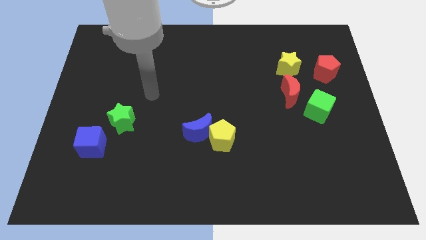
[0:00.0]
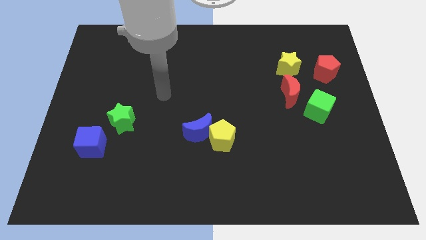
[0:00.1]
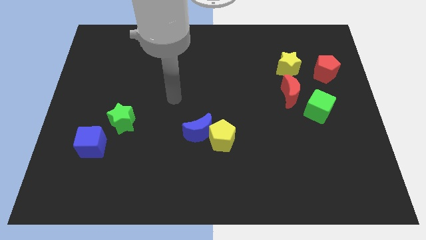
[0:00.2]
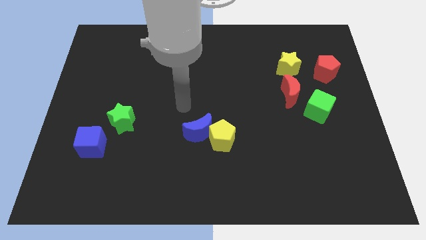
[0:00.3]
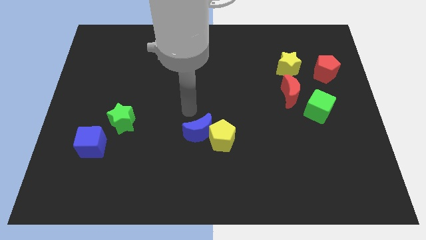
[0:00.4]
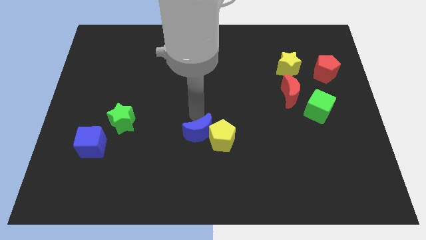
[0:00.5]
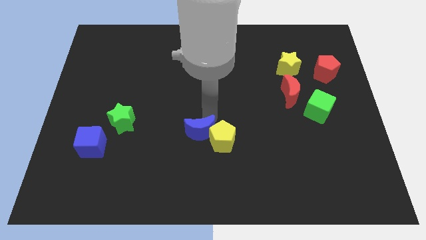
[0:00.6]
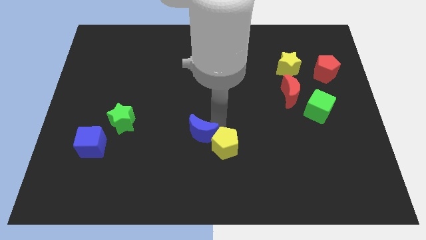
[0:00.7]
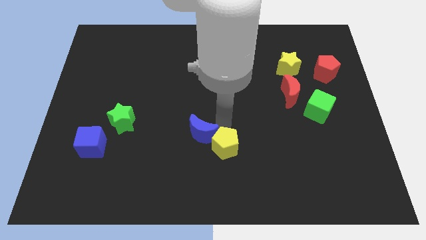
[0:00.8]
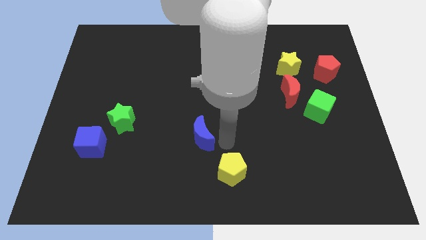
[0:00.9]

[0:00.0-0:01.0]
move the blue moon away from the yellow pentagon

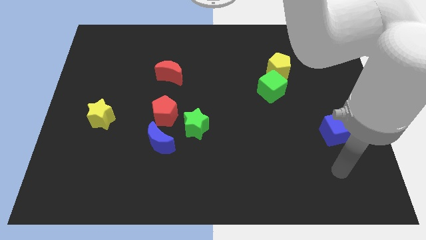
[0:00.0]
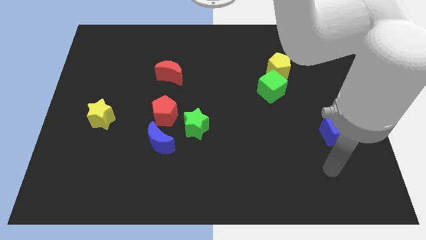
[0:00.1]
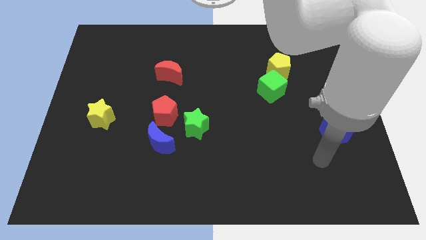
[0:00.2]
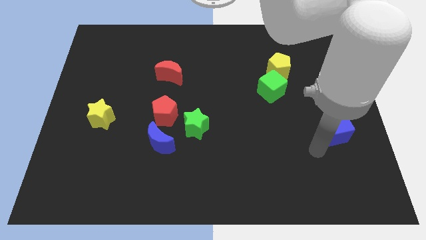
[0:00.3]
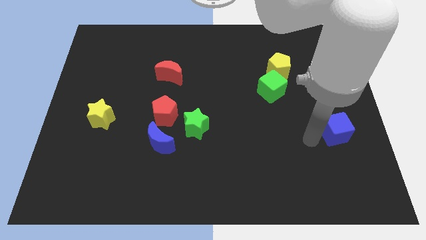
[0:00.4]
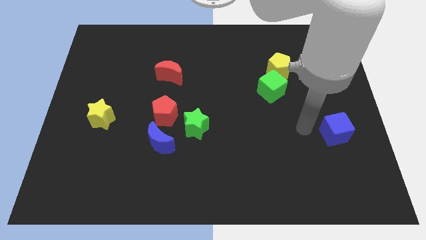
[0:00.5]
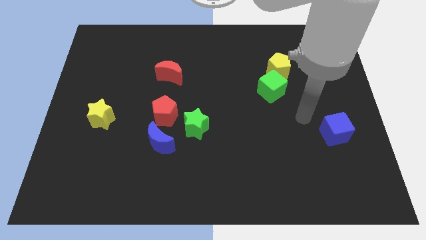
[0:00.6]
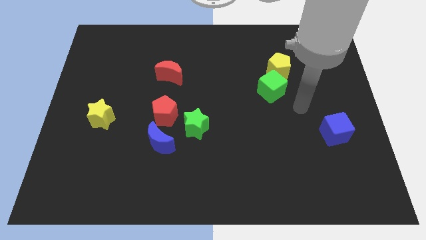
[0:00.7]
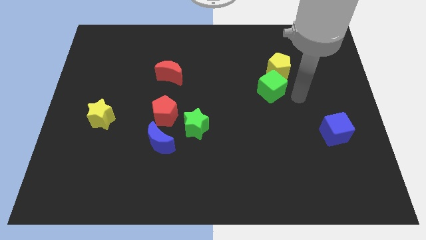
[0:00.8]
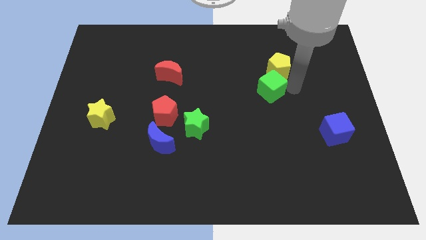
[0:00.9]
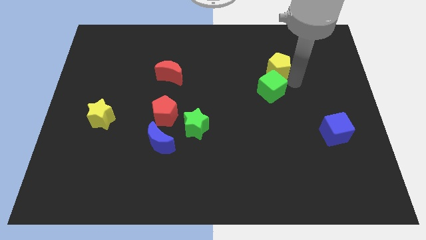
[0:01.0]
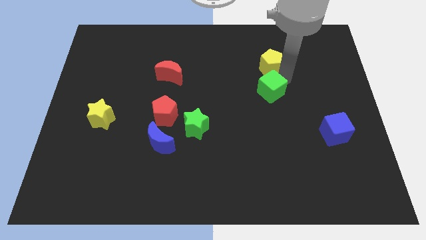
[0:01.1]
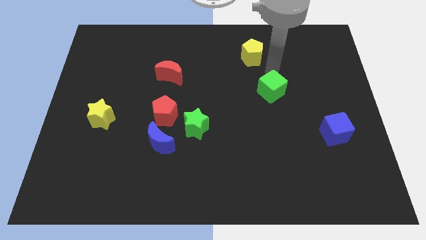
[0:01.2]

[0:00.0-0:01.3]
move the green cube away from the yellow pentagon

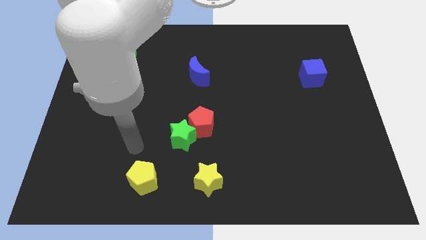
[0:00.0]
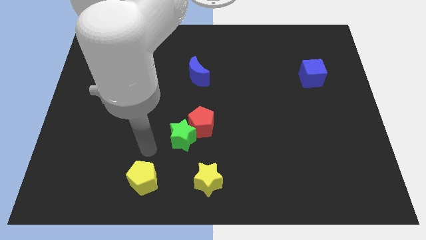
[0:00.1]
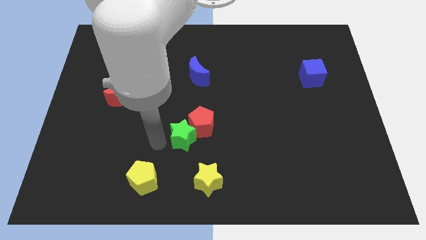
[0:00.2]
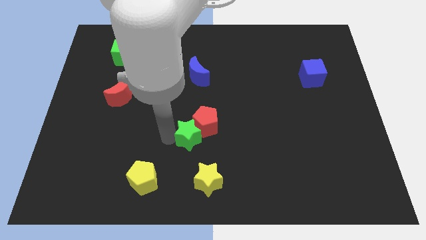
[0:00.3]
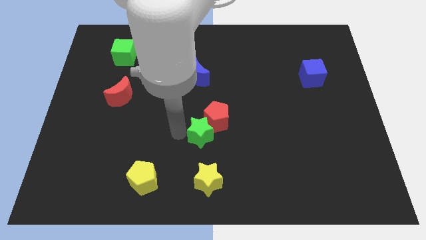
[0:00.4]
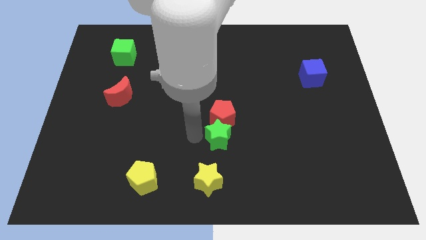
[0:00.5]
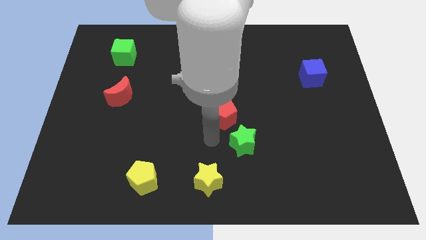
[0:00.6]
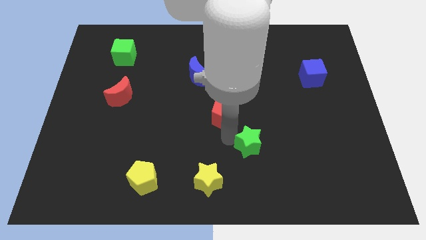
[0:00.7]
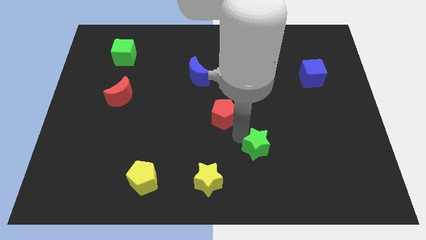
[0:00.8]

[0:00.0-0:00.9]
separate the red pentagon from the green star

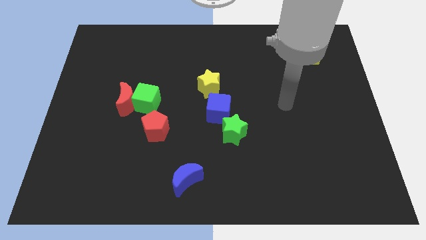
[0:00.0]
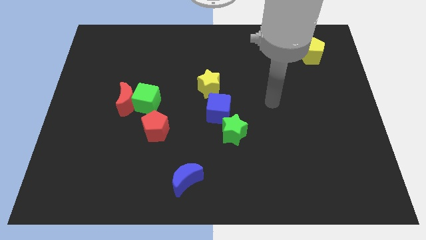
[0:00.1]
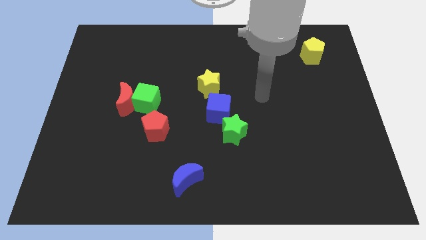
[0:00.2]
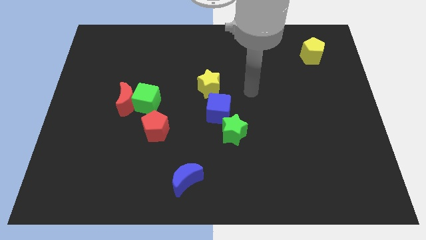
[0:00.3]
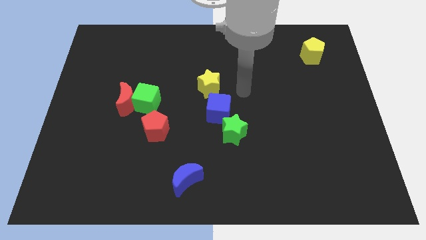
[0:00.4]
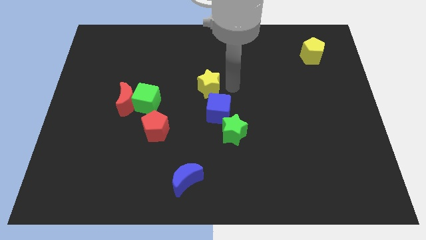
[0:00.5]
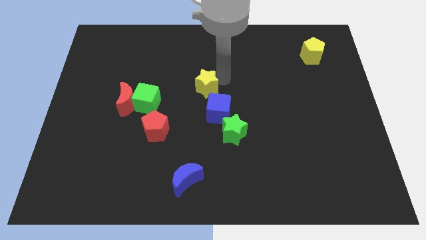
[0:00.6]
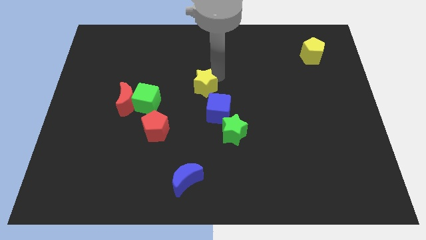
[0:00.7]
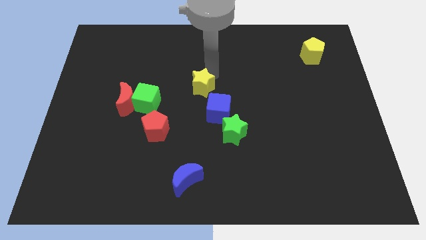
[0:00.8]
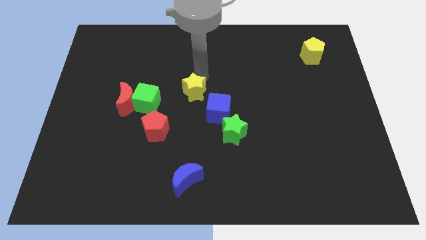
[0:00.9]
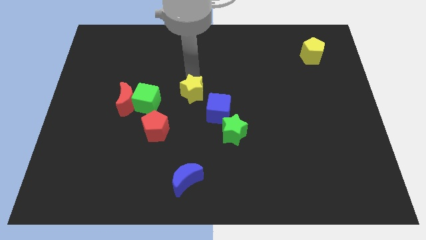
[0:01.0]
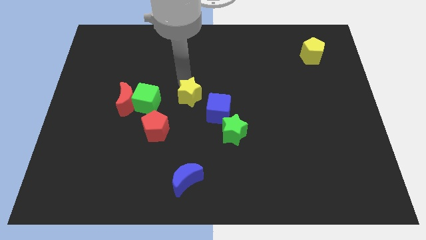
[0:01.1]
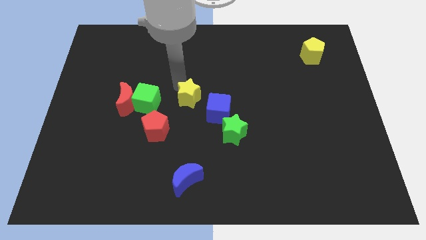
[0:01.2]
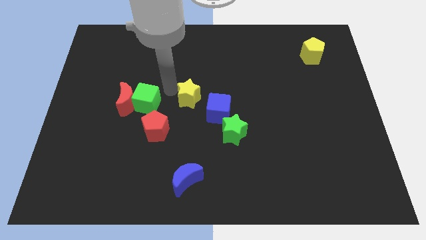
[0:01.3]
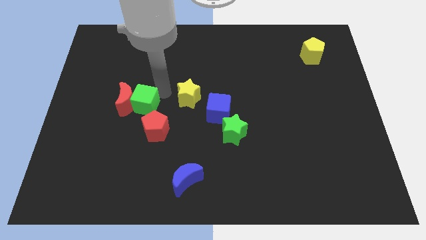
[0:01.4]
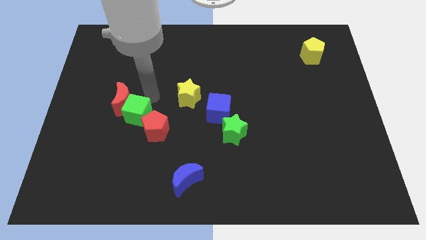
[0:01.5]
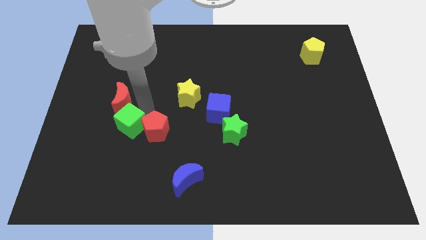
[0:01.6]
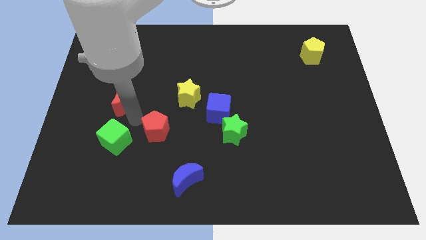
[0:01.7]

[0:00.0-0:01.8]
pull the red moon apart from the green cube

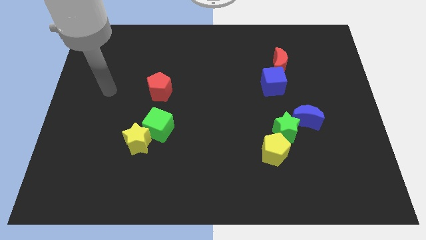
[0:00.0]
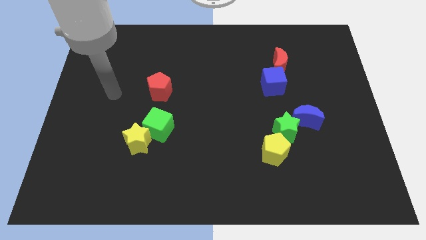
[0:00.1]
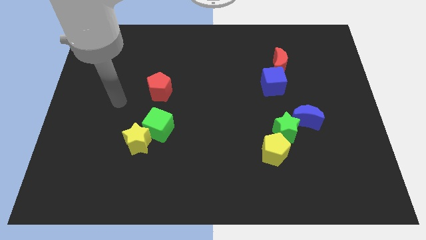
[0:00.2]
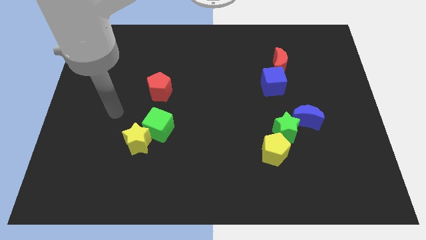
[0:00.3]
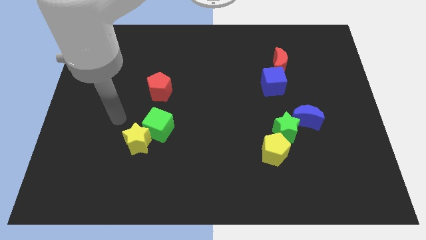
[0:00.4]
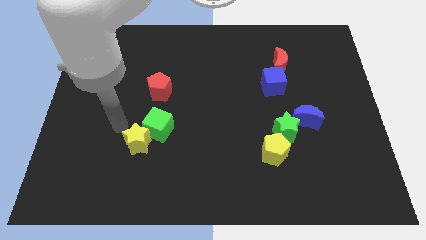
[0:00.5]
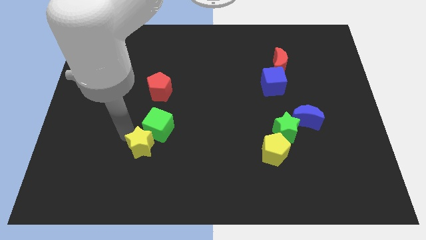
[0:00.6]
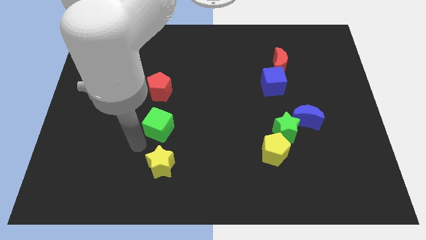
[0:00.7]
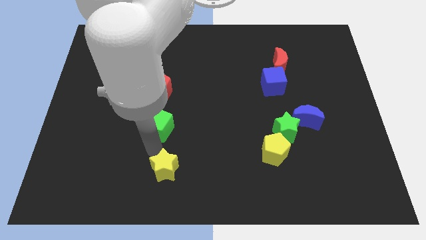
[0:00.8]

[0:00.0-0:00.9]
move the green cube away from the yellow star

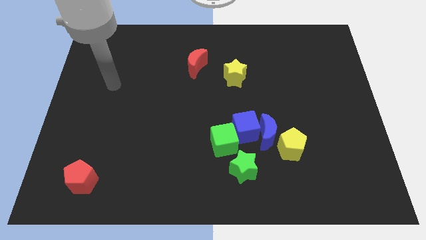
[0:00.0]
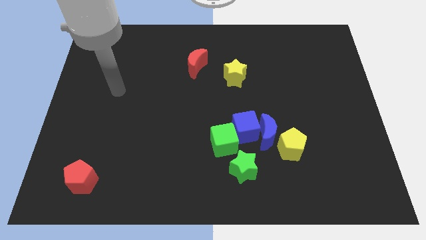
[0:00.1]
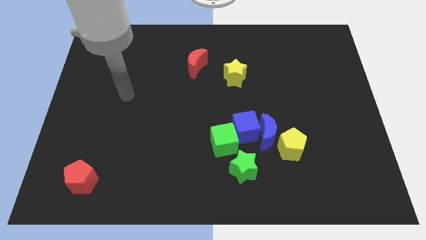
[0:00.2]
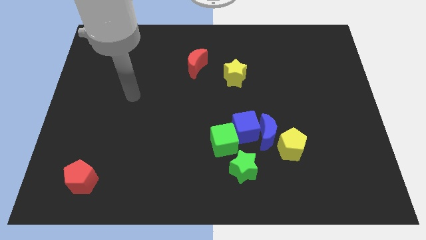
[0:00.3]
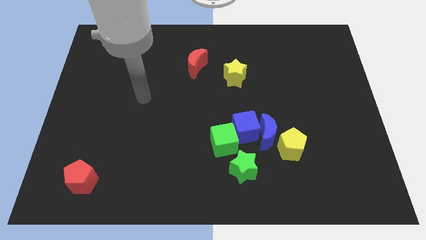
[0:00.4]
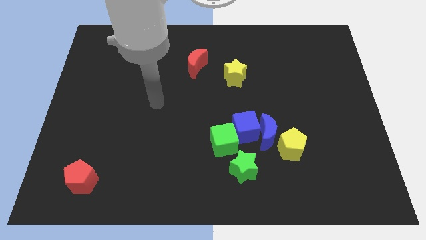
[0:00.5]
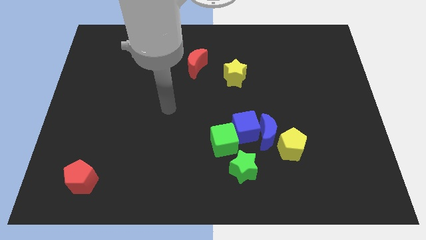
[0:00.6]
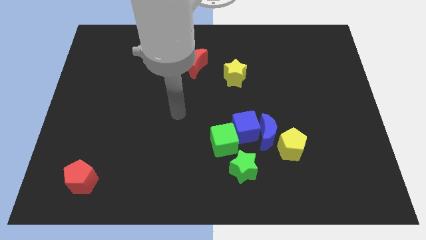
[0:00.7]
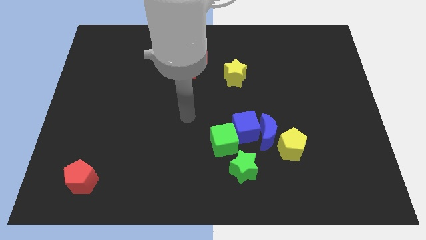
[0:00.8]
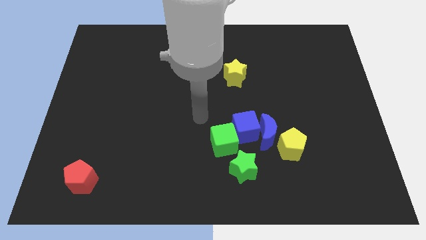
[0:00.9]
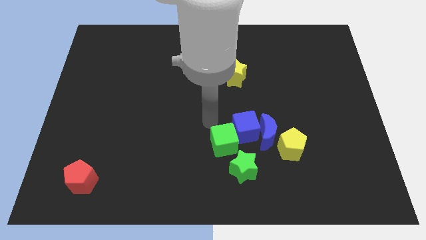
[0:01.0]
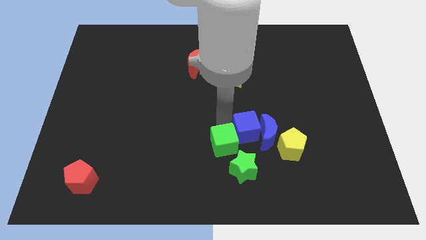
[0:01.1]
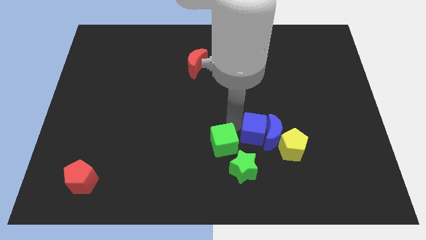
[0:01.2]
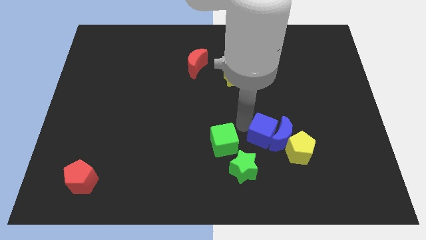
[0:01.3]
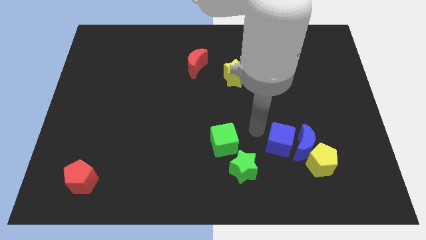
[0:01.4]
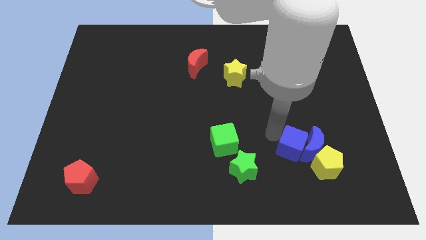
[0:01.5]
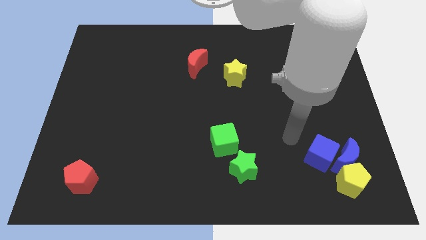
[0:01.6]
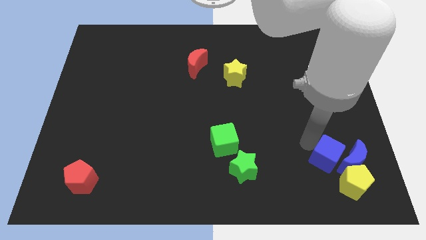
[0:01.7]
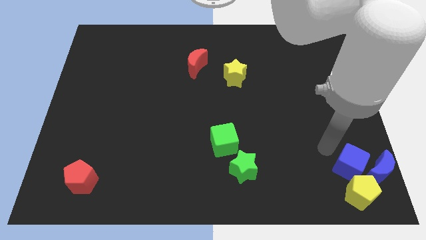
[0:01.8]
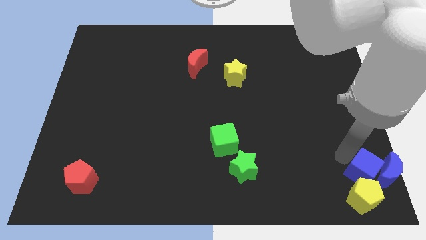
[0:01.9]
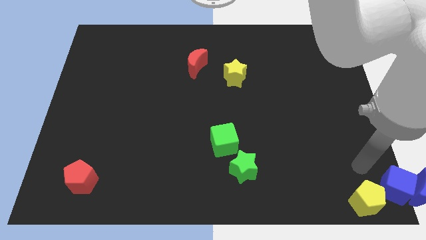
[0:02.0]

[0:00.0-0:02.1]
move the yellow pentagon away from the blue moon

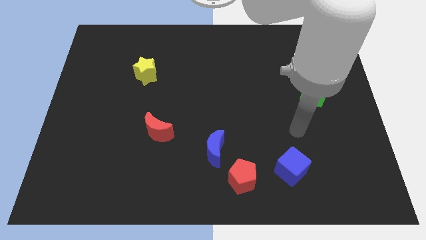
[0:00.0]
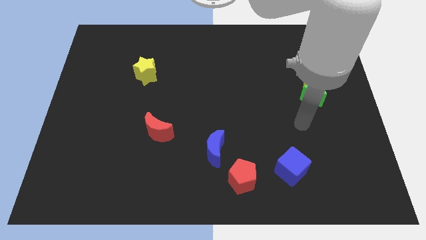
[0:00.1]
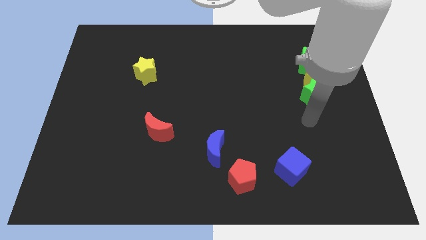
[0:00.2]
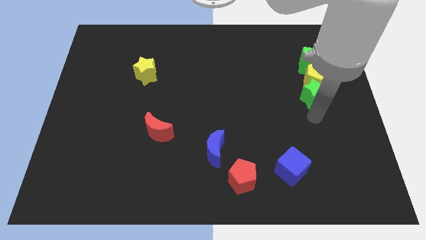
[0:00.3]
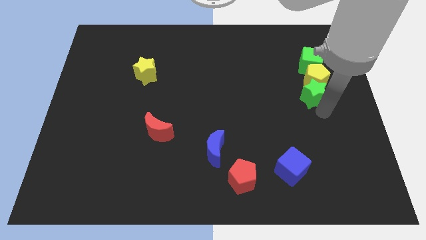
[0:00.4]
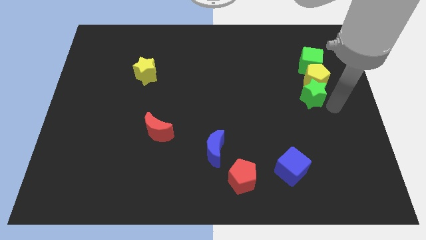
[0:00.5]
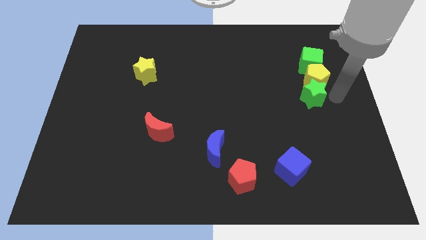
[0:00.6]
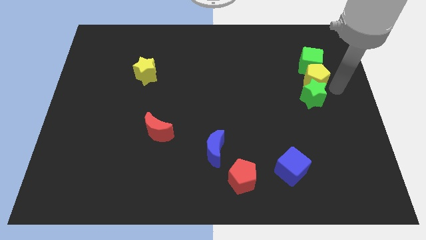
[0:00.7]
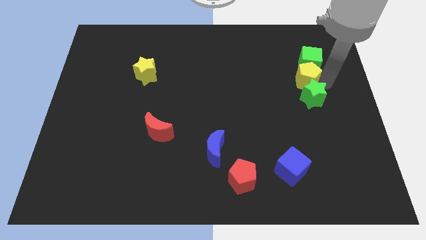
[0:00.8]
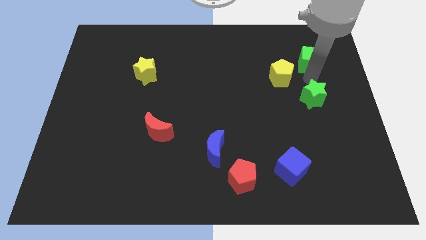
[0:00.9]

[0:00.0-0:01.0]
pull the green star apart from the yellow pentagon

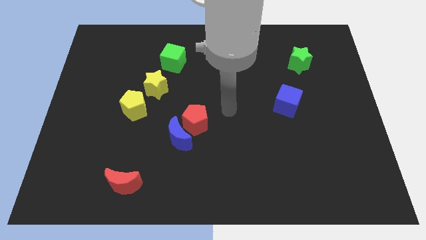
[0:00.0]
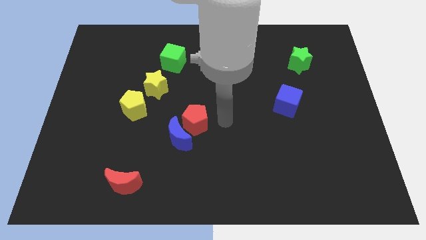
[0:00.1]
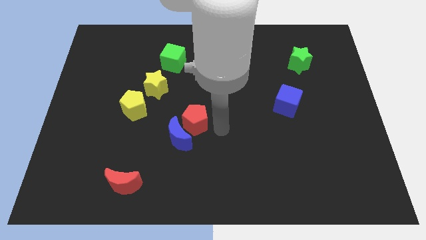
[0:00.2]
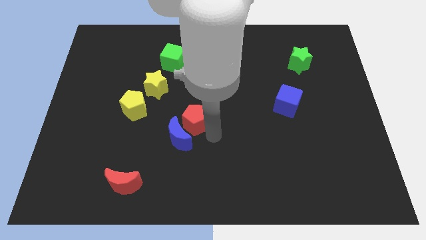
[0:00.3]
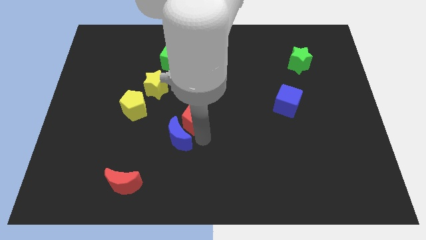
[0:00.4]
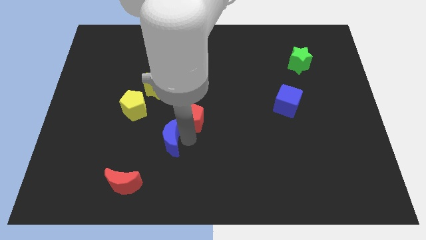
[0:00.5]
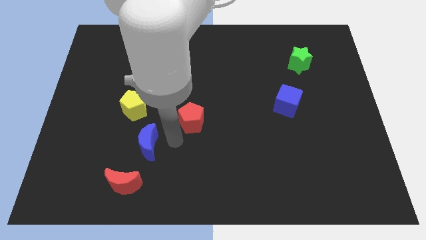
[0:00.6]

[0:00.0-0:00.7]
move the red pentagon away from the blue moon
